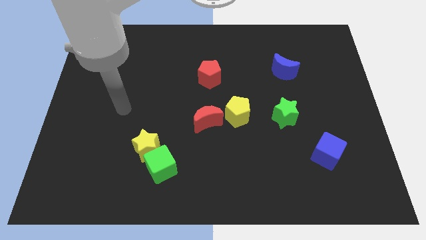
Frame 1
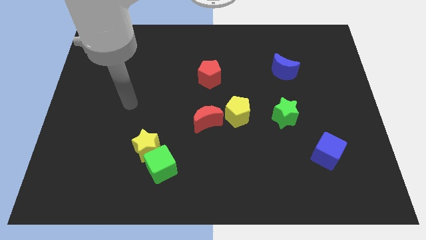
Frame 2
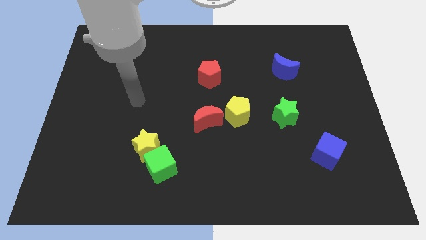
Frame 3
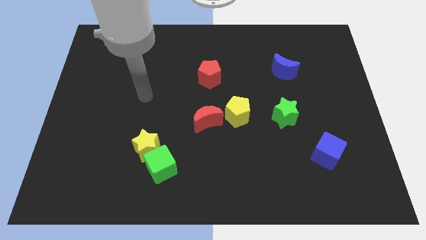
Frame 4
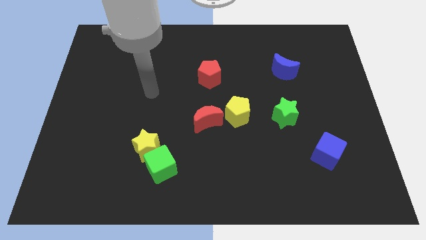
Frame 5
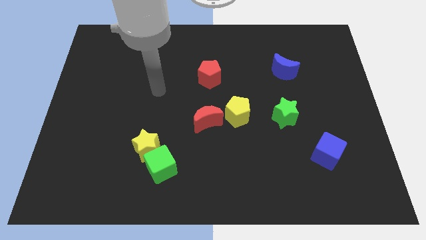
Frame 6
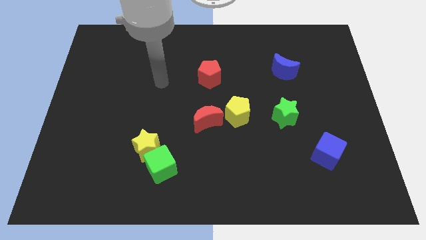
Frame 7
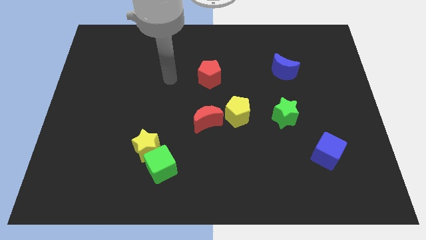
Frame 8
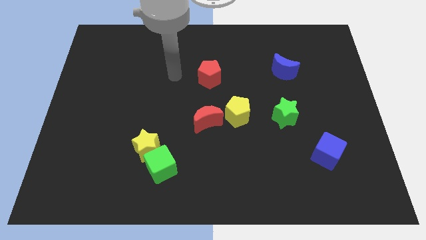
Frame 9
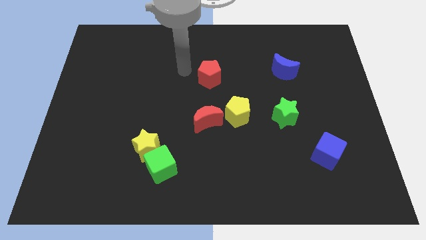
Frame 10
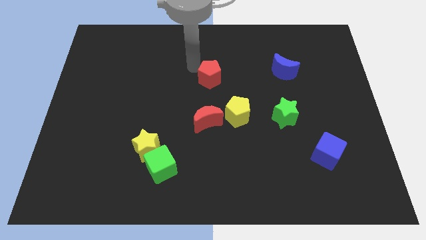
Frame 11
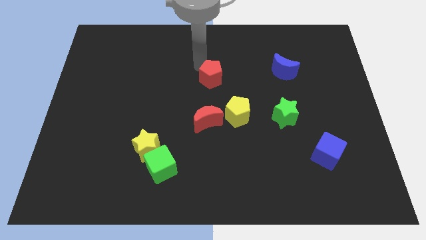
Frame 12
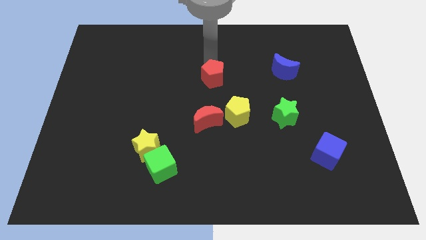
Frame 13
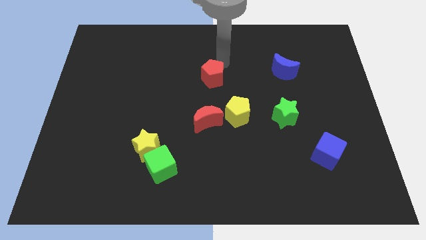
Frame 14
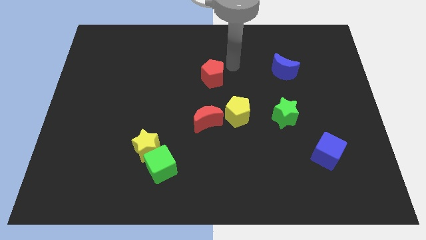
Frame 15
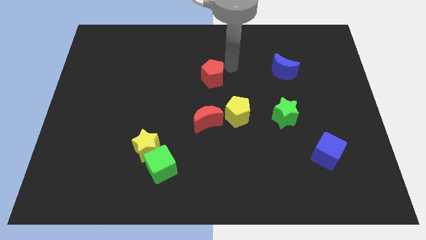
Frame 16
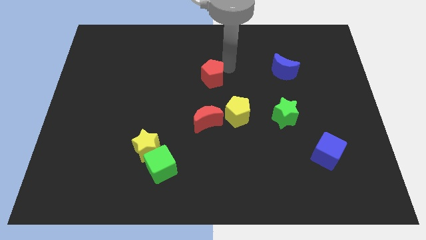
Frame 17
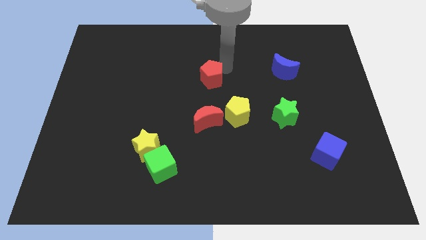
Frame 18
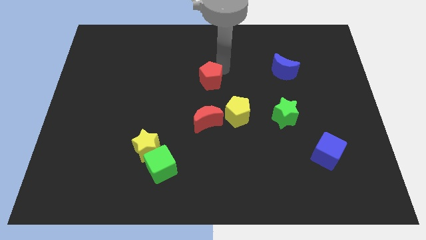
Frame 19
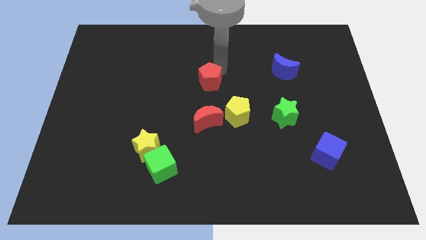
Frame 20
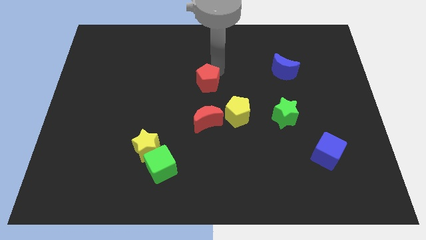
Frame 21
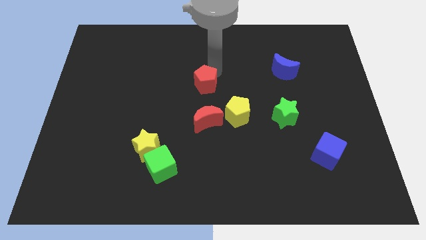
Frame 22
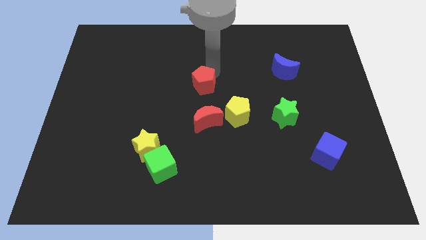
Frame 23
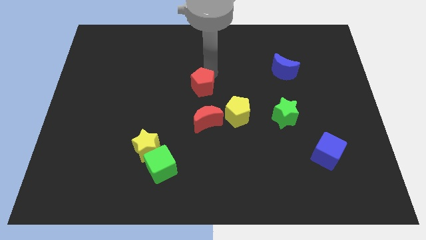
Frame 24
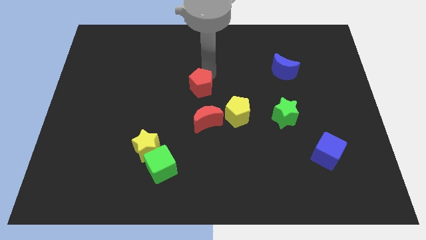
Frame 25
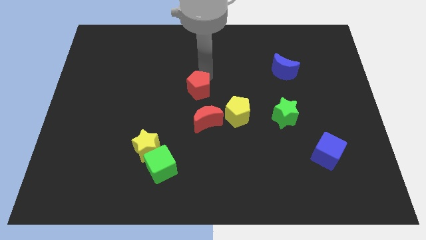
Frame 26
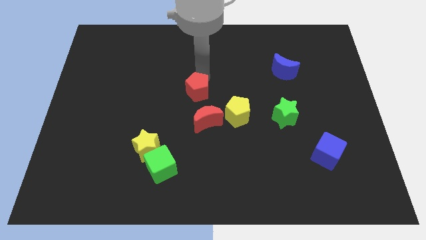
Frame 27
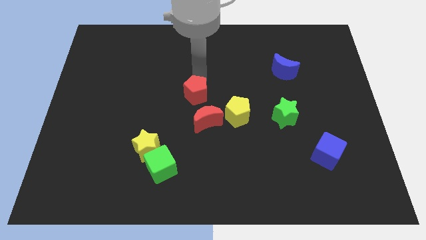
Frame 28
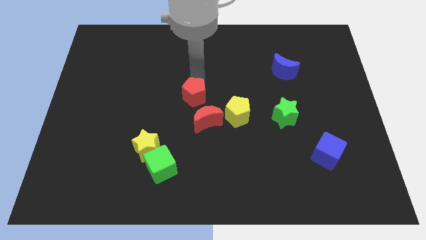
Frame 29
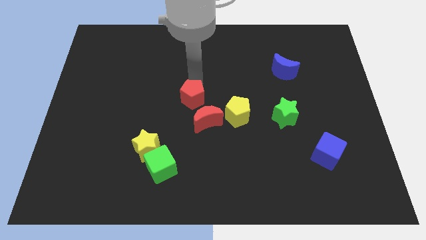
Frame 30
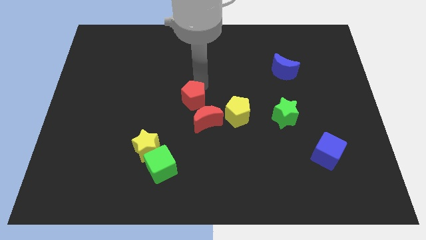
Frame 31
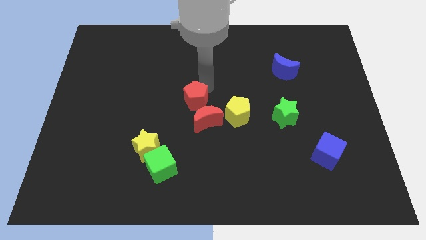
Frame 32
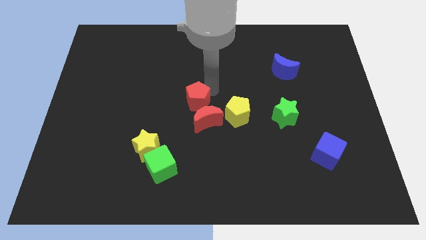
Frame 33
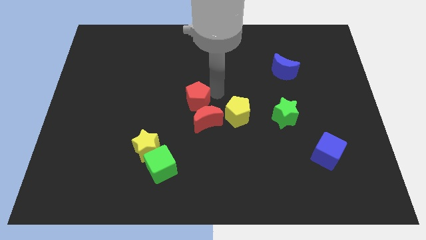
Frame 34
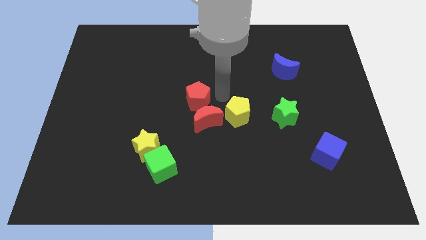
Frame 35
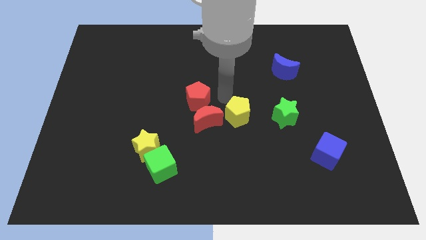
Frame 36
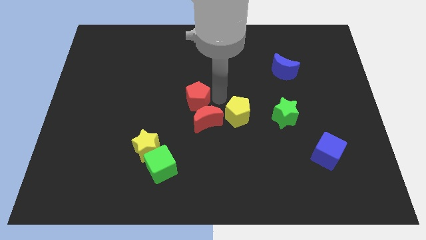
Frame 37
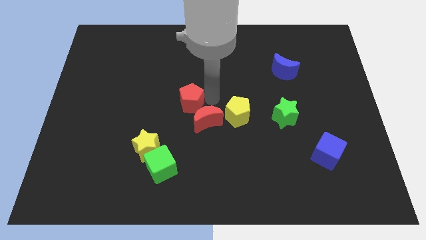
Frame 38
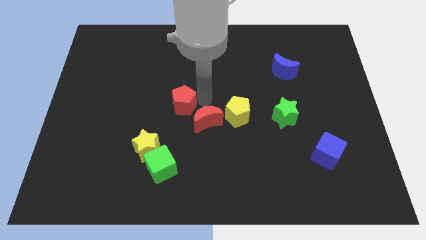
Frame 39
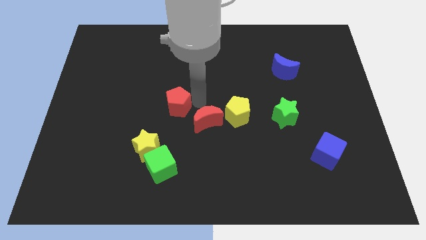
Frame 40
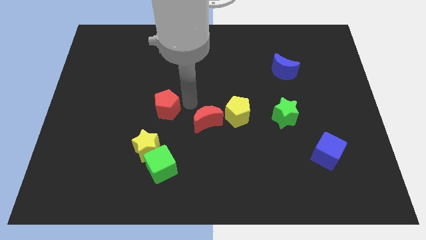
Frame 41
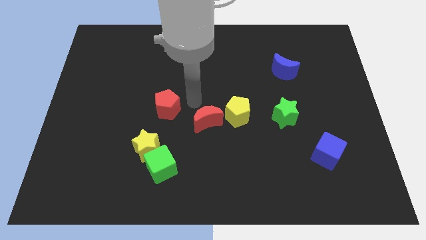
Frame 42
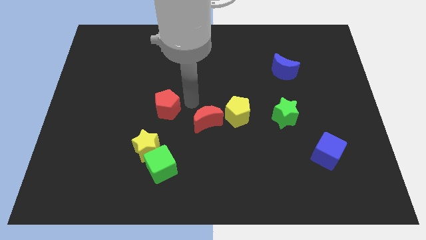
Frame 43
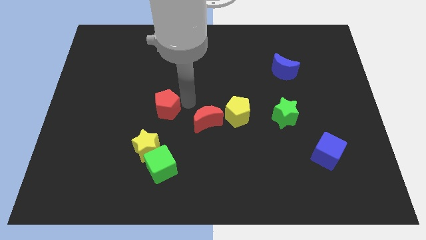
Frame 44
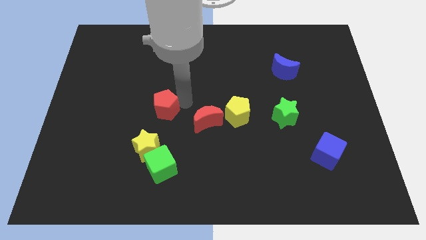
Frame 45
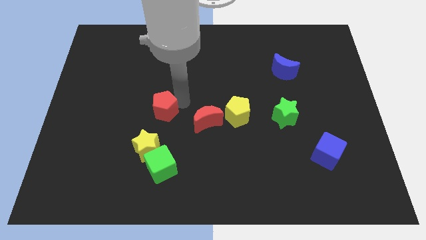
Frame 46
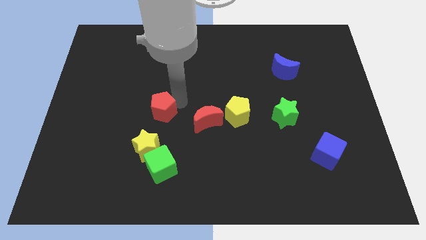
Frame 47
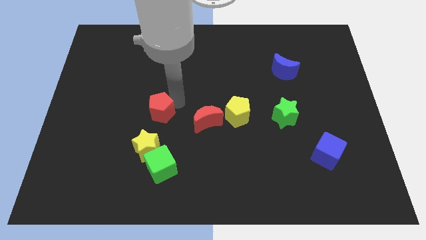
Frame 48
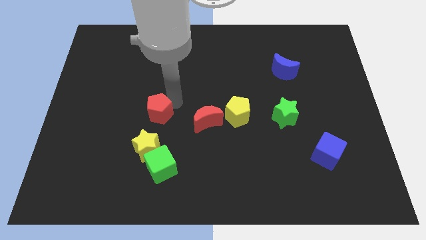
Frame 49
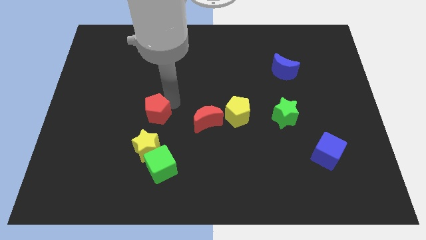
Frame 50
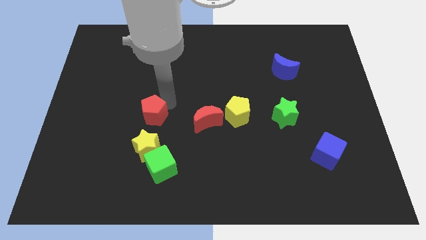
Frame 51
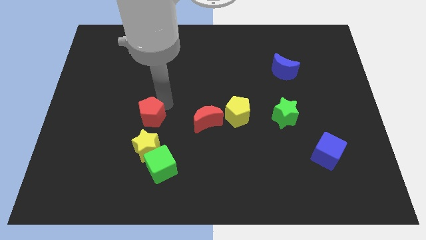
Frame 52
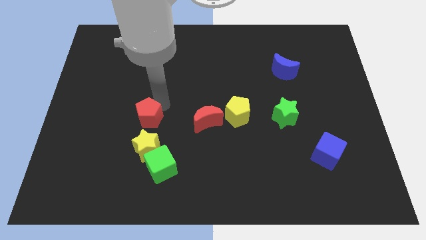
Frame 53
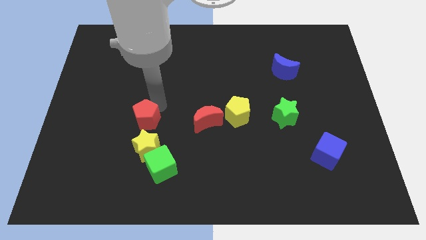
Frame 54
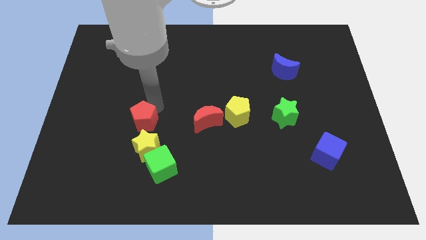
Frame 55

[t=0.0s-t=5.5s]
slide the red pentagon to the top left of the yellow star

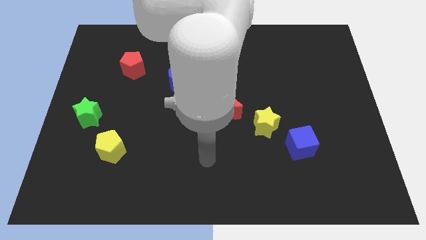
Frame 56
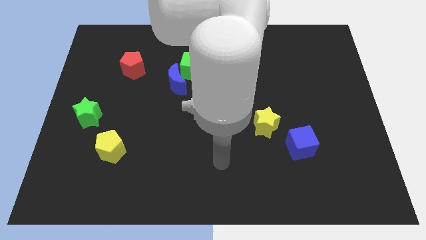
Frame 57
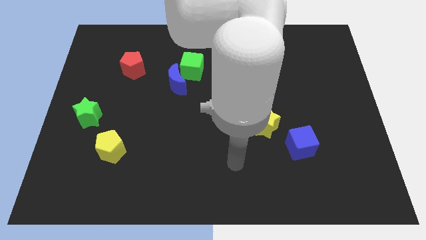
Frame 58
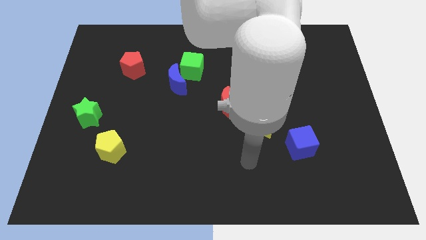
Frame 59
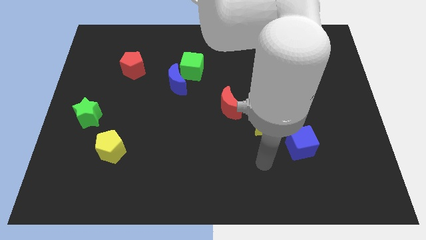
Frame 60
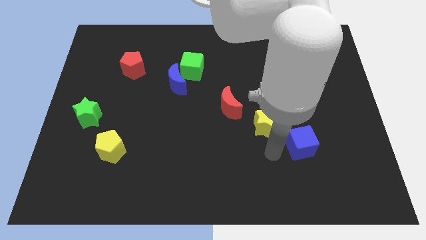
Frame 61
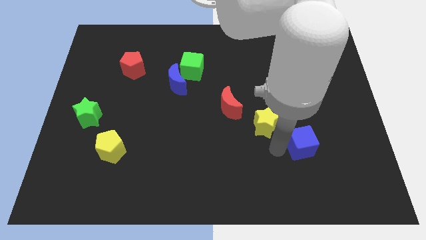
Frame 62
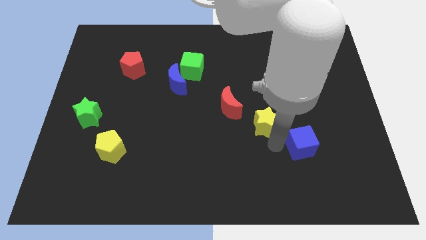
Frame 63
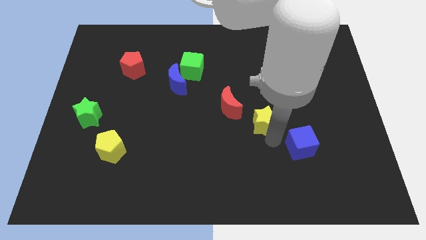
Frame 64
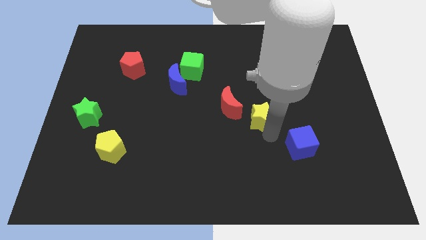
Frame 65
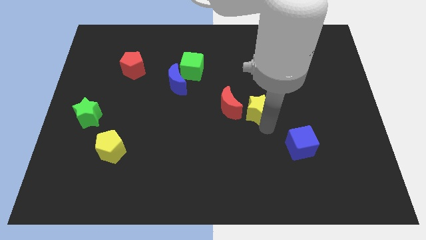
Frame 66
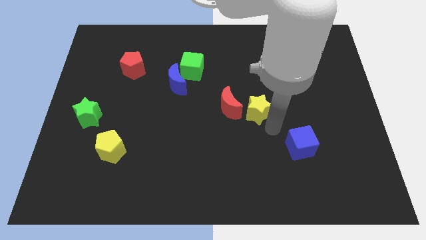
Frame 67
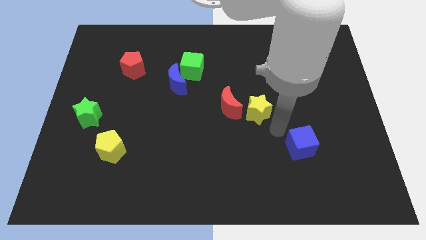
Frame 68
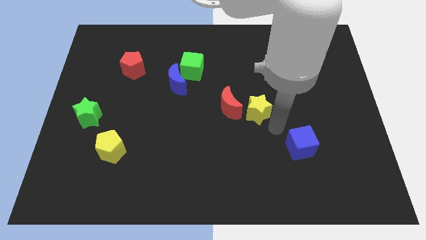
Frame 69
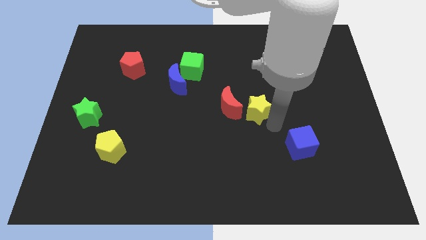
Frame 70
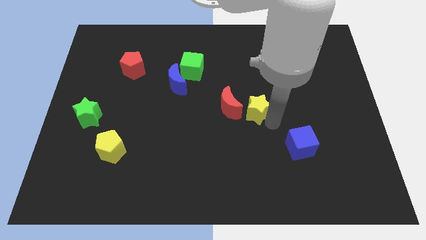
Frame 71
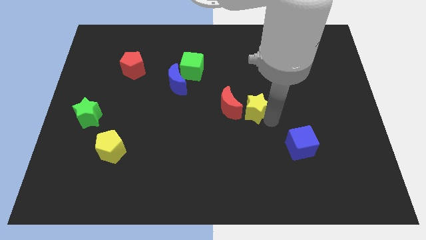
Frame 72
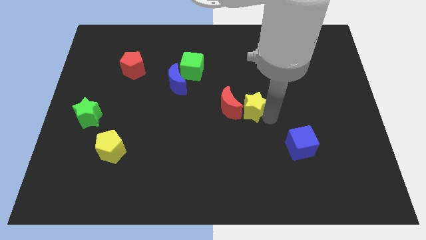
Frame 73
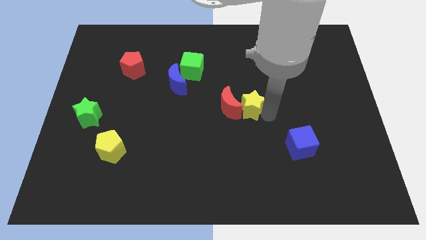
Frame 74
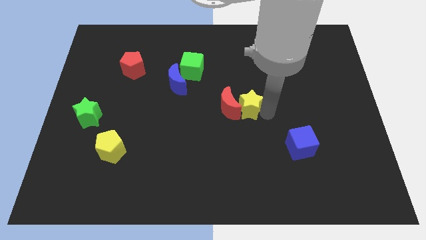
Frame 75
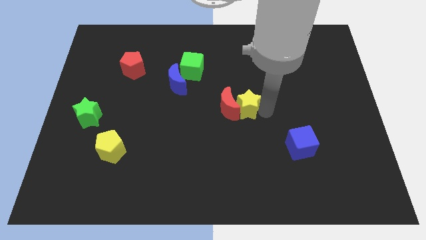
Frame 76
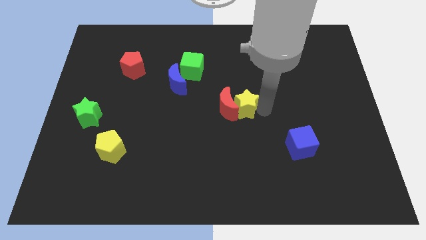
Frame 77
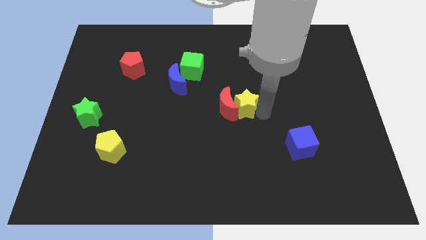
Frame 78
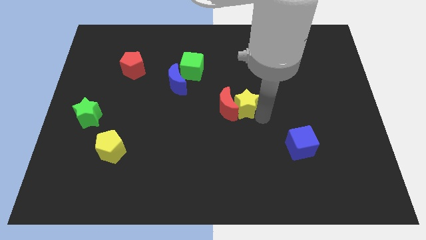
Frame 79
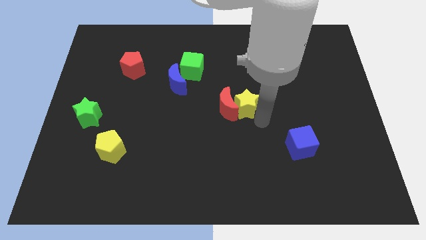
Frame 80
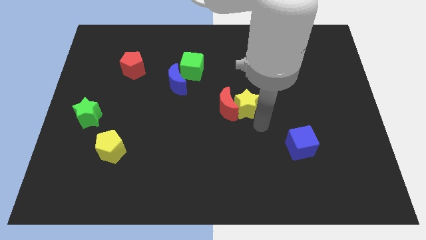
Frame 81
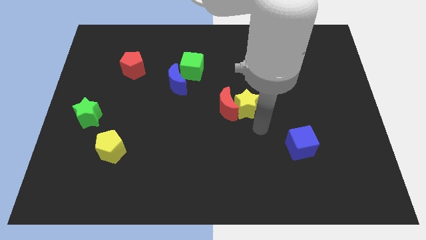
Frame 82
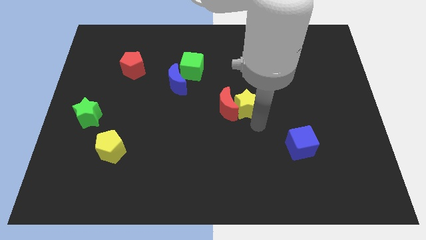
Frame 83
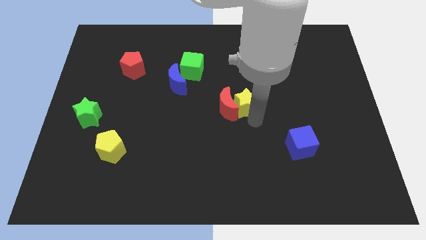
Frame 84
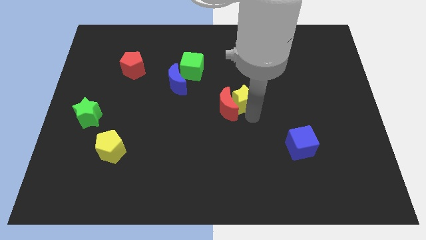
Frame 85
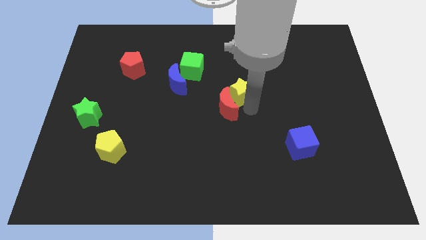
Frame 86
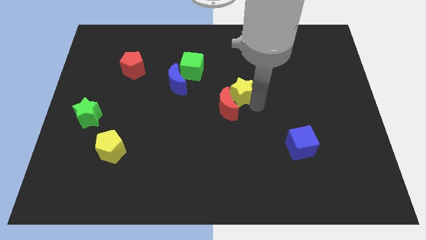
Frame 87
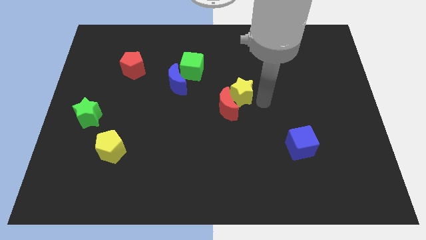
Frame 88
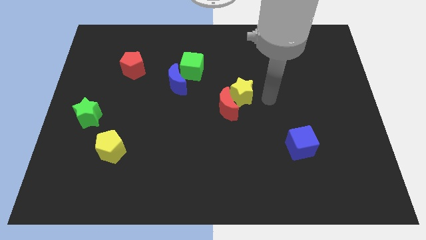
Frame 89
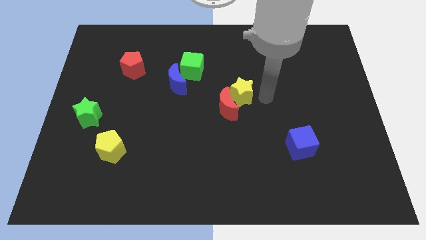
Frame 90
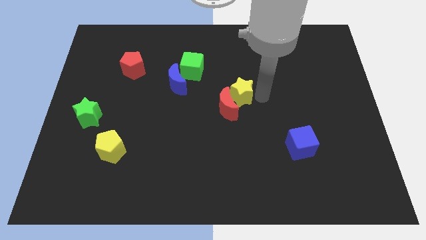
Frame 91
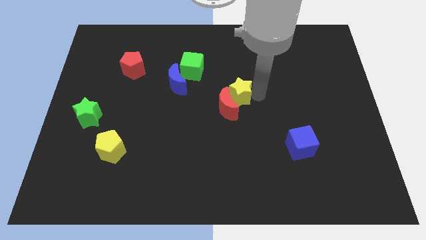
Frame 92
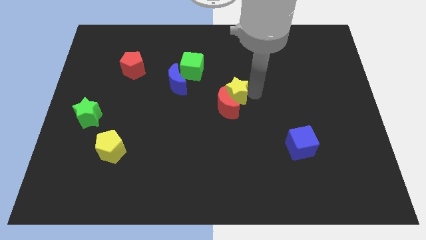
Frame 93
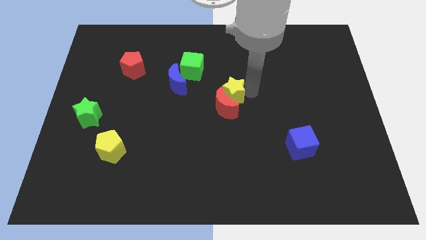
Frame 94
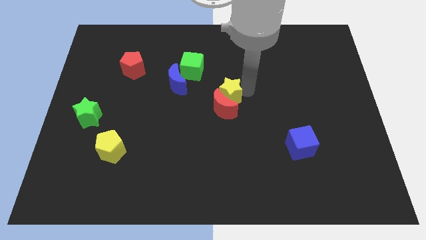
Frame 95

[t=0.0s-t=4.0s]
move the yellow star diagonally up and to the left of the red moon
